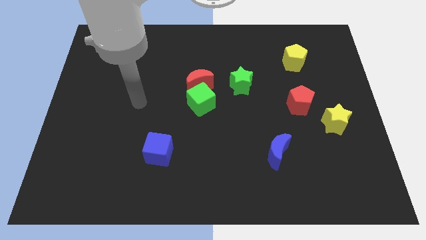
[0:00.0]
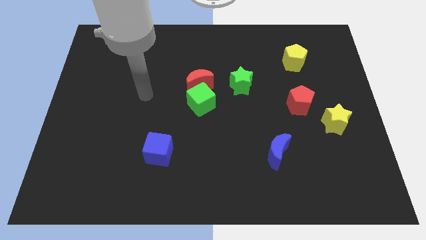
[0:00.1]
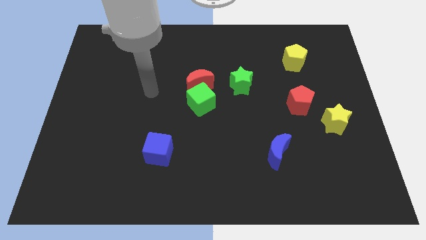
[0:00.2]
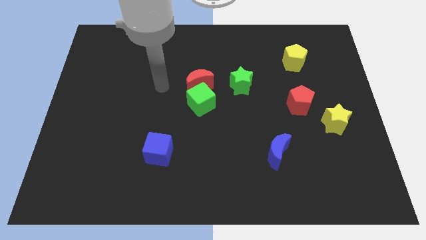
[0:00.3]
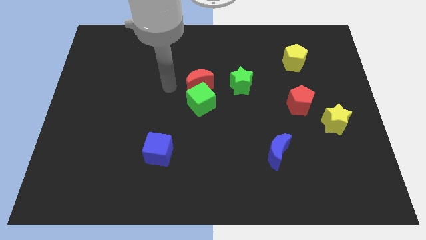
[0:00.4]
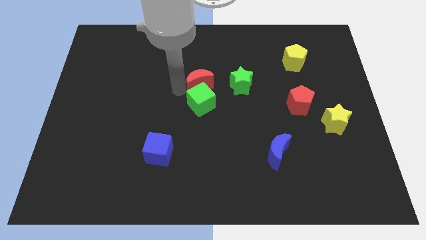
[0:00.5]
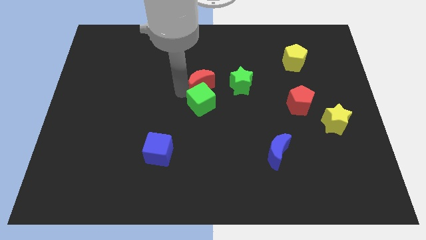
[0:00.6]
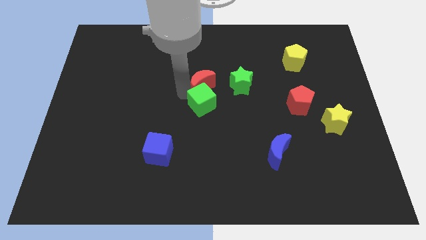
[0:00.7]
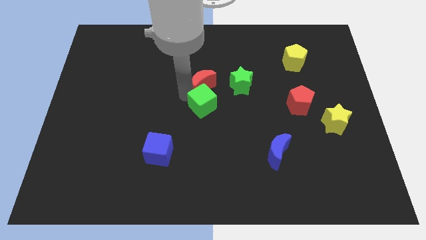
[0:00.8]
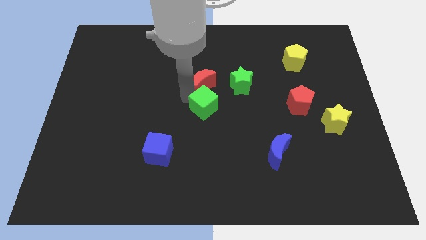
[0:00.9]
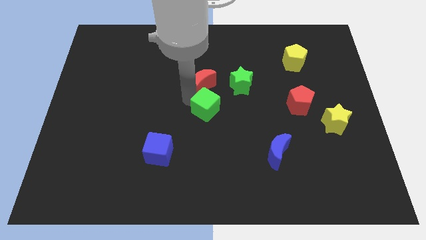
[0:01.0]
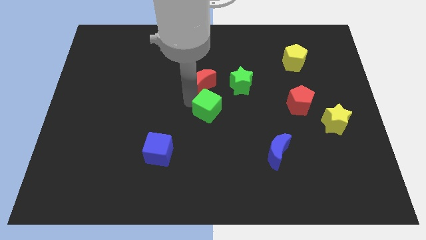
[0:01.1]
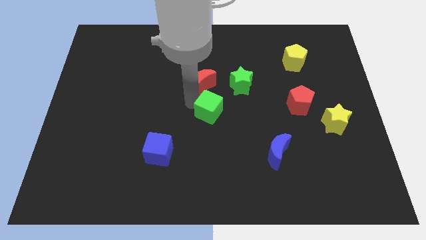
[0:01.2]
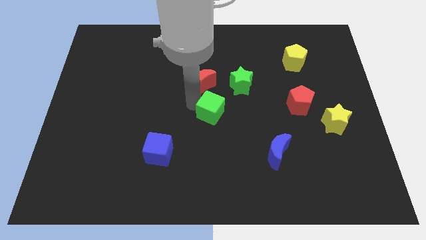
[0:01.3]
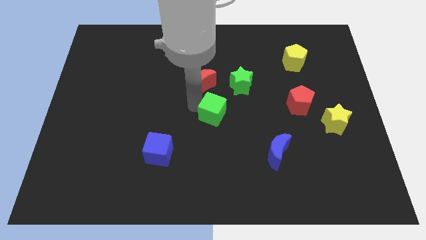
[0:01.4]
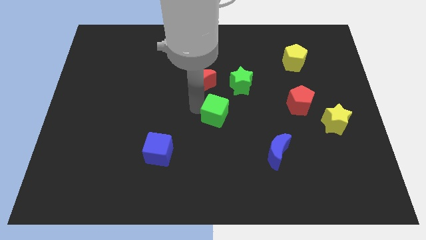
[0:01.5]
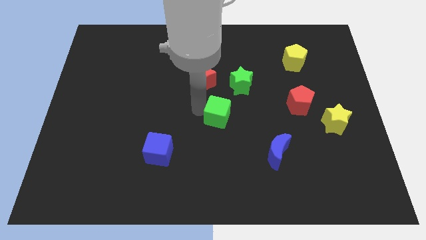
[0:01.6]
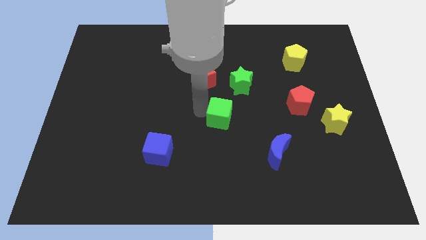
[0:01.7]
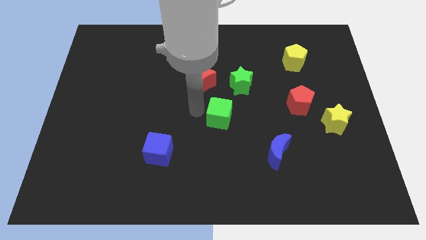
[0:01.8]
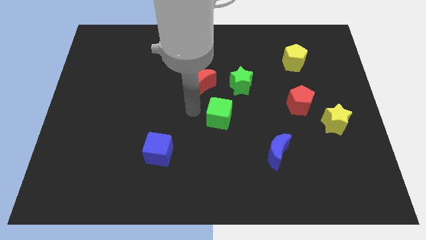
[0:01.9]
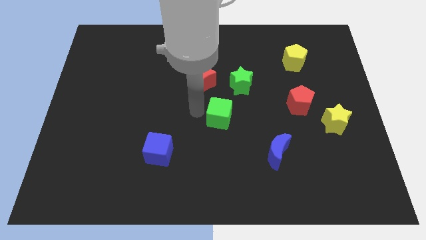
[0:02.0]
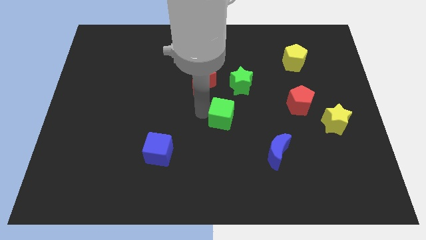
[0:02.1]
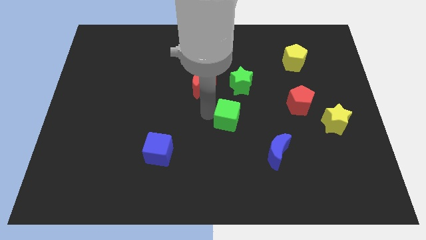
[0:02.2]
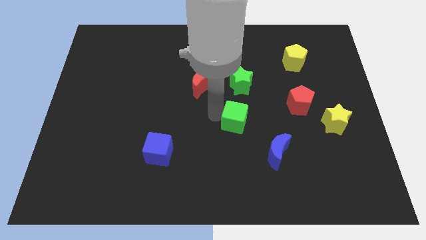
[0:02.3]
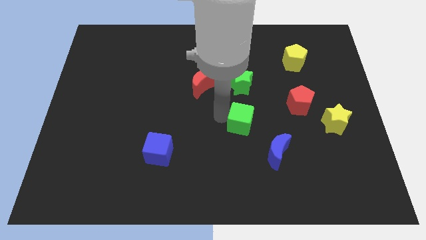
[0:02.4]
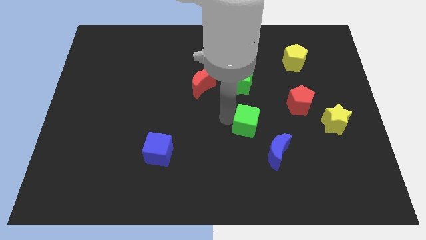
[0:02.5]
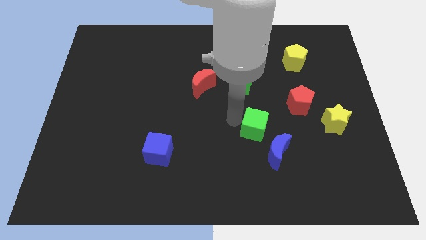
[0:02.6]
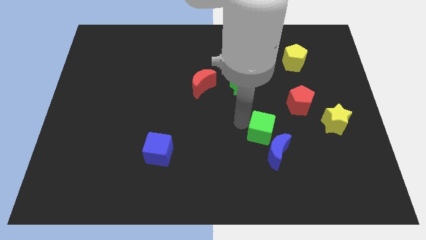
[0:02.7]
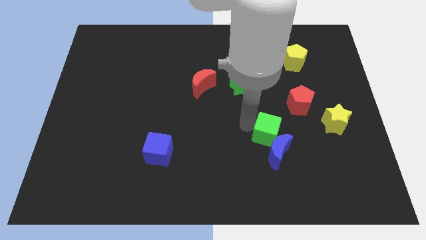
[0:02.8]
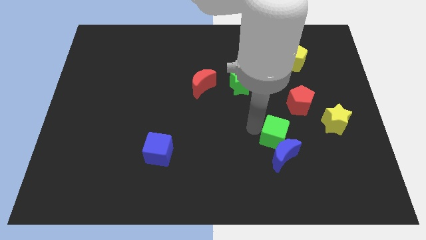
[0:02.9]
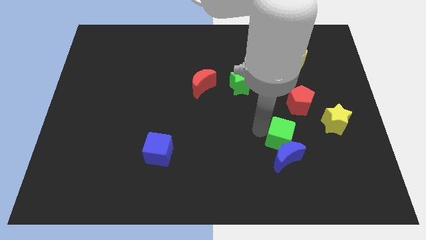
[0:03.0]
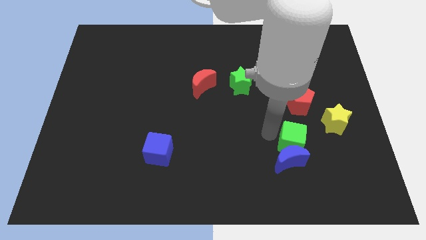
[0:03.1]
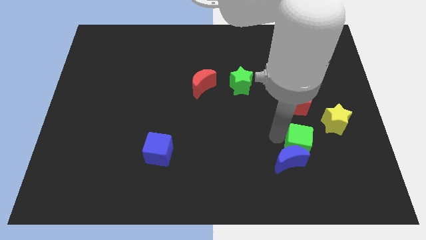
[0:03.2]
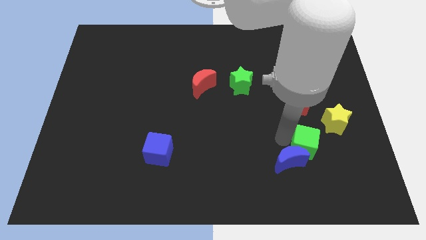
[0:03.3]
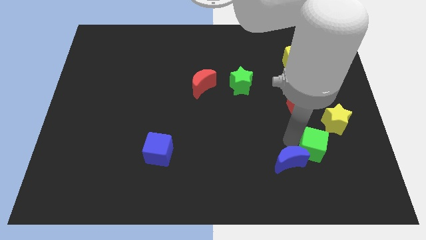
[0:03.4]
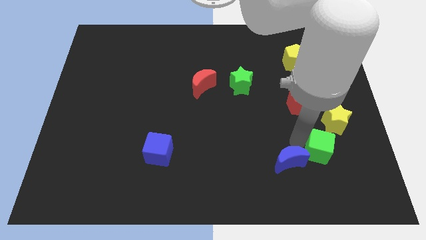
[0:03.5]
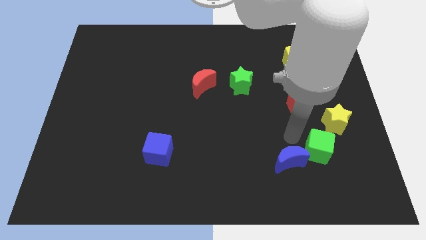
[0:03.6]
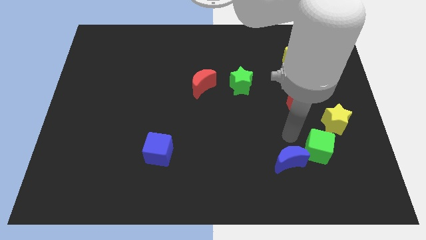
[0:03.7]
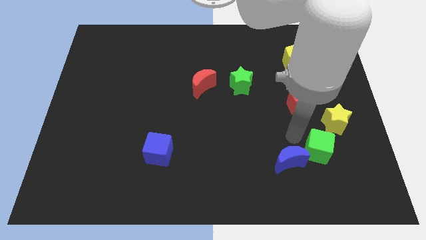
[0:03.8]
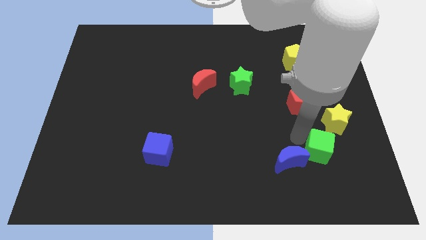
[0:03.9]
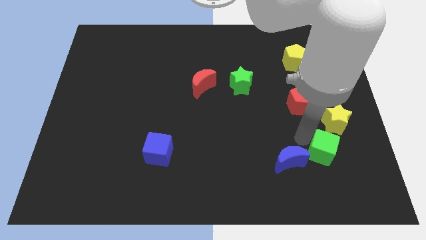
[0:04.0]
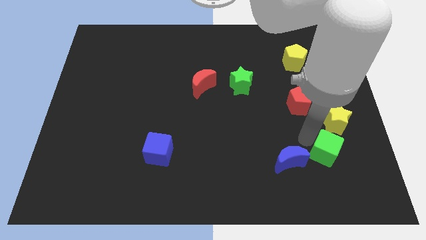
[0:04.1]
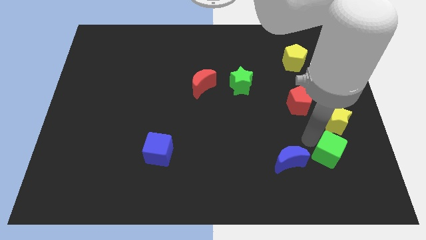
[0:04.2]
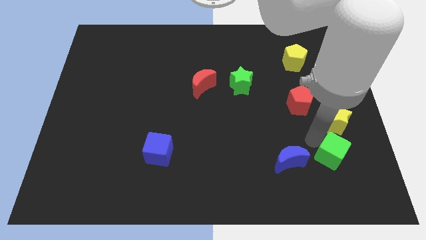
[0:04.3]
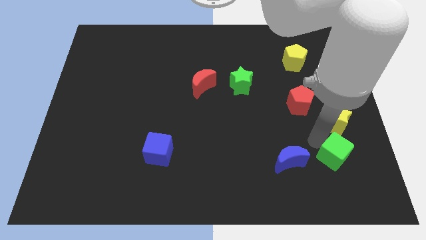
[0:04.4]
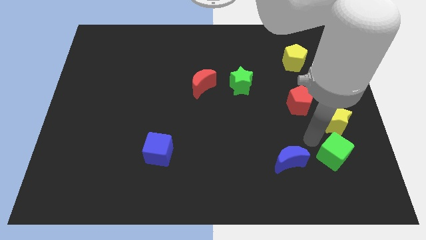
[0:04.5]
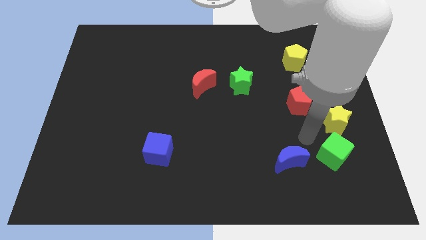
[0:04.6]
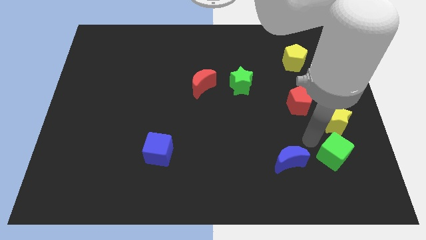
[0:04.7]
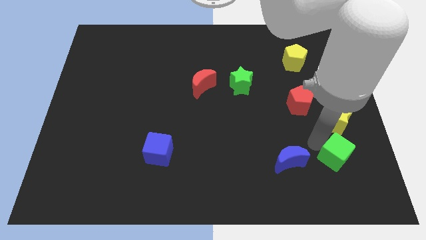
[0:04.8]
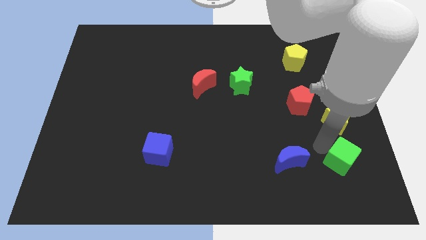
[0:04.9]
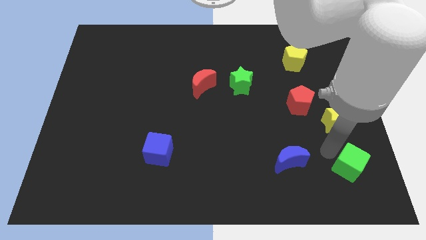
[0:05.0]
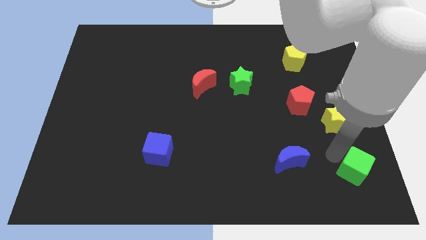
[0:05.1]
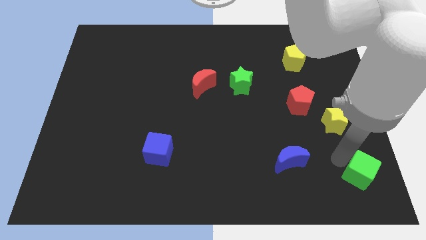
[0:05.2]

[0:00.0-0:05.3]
put the green cube to the lower right corner

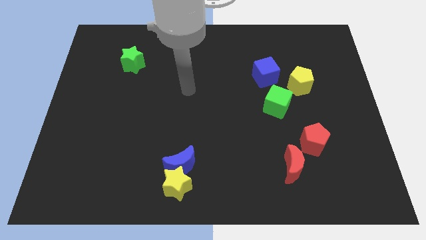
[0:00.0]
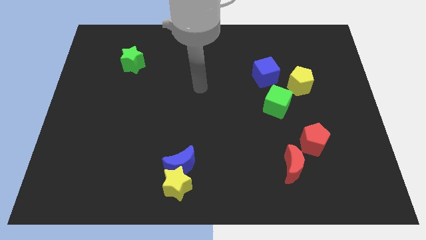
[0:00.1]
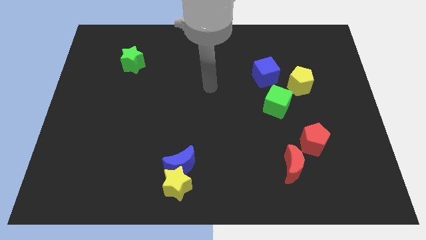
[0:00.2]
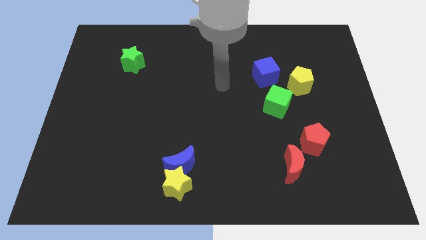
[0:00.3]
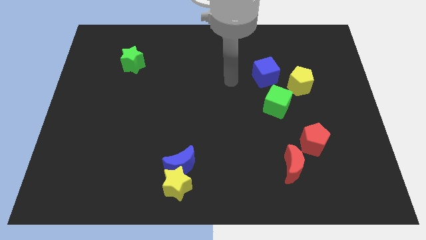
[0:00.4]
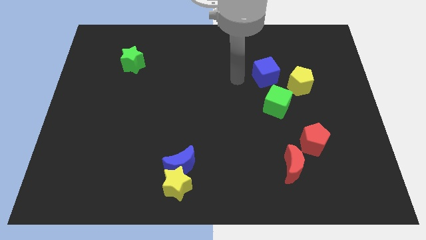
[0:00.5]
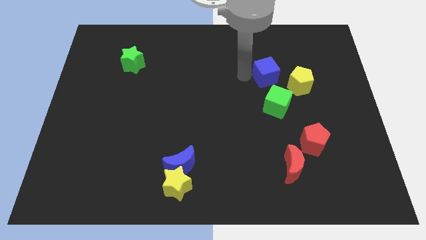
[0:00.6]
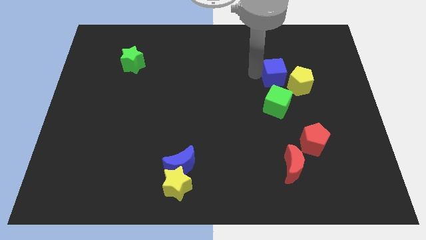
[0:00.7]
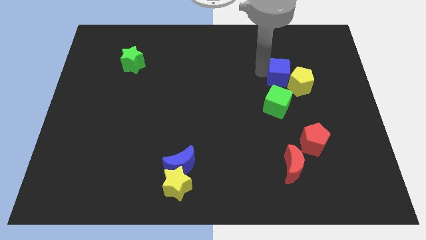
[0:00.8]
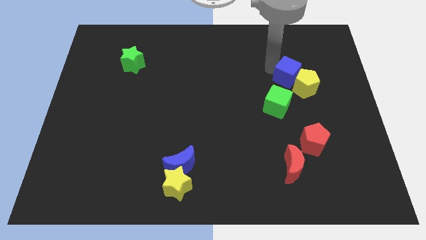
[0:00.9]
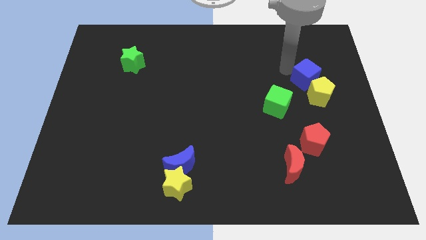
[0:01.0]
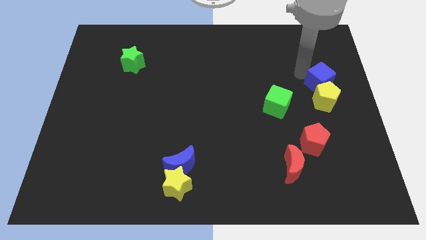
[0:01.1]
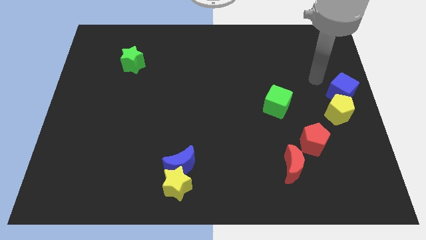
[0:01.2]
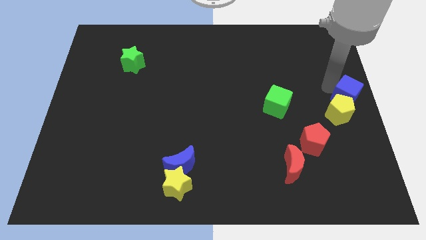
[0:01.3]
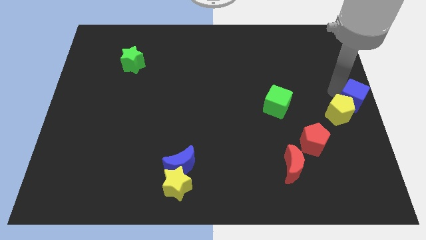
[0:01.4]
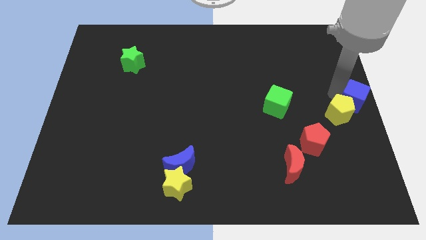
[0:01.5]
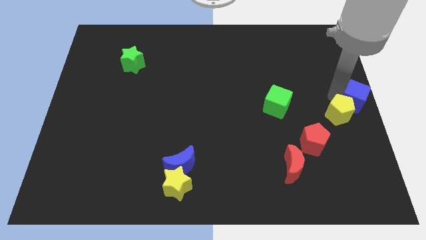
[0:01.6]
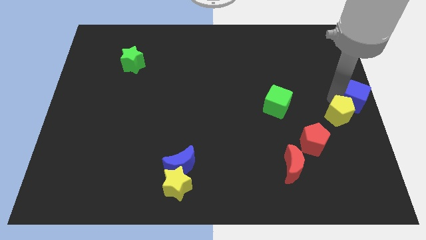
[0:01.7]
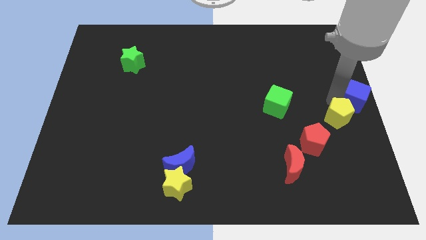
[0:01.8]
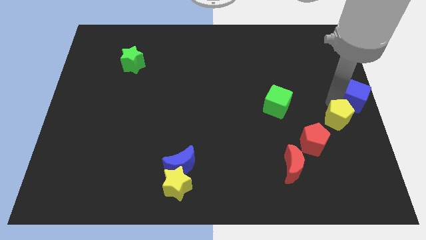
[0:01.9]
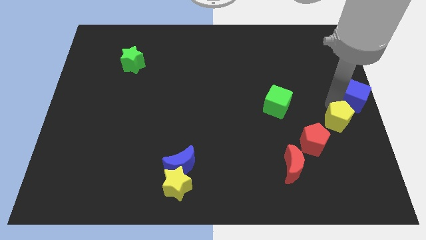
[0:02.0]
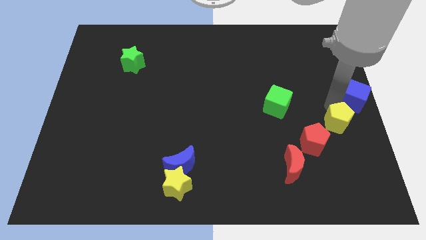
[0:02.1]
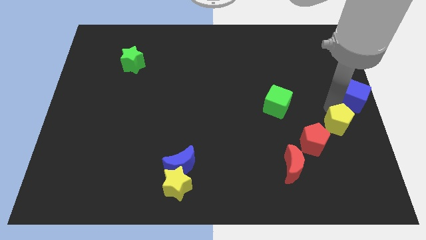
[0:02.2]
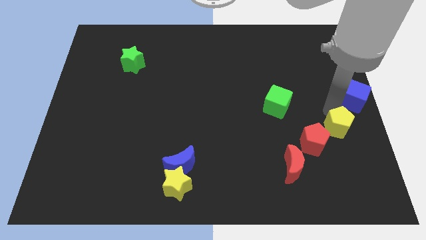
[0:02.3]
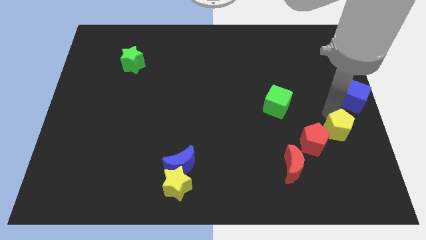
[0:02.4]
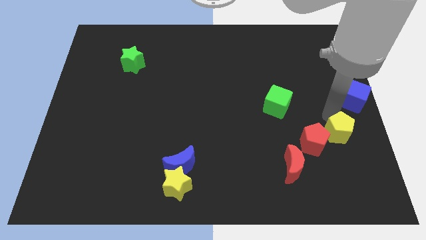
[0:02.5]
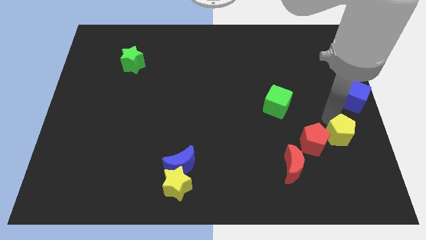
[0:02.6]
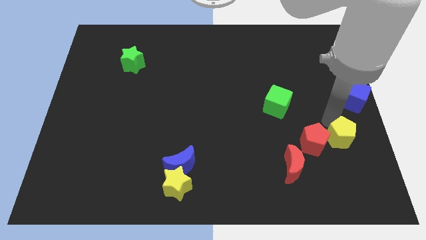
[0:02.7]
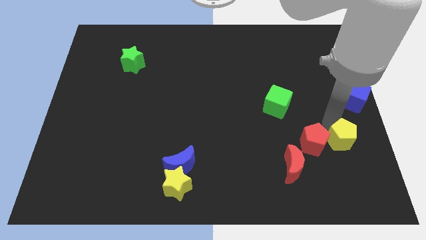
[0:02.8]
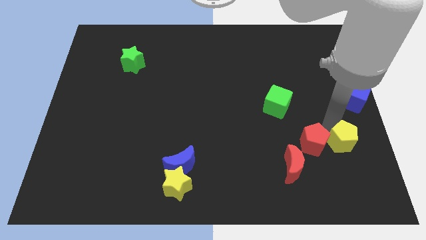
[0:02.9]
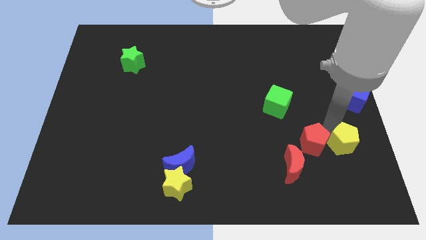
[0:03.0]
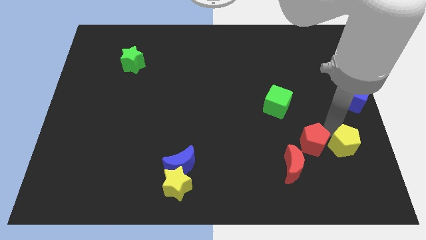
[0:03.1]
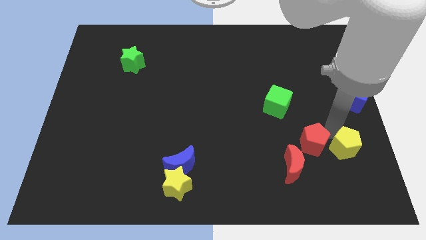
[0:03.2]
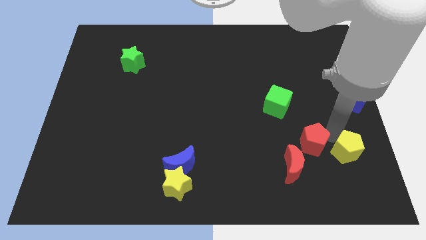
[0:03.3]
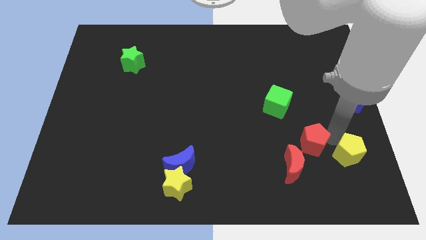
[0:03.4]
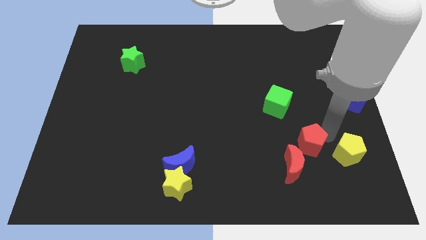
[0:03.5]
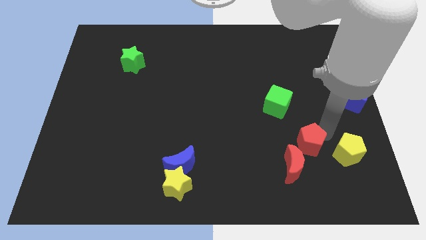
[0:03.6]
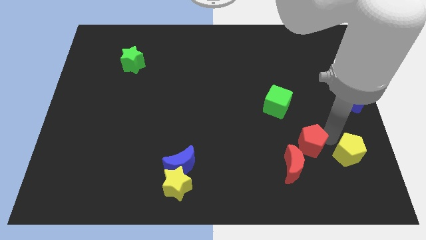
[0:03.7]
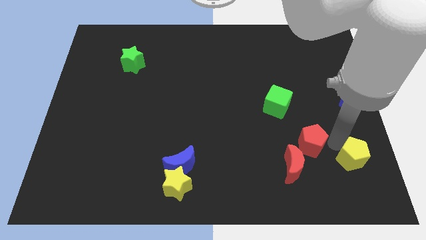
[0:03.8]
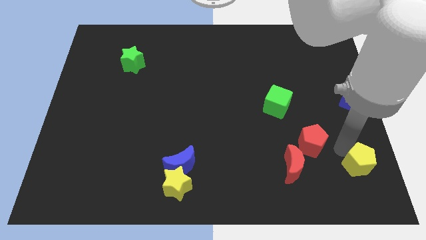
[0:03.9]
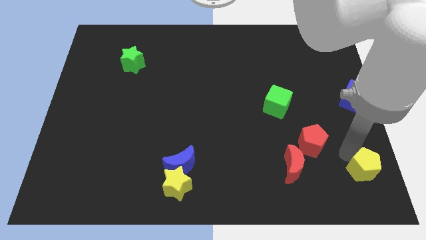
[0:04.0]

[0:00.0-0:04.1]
push the yellow pentagon to the bottom right of the board
